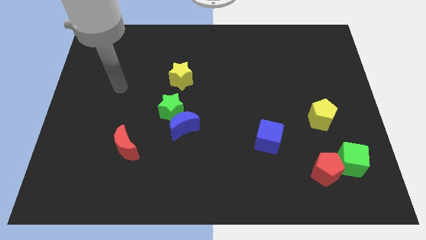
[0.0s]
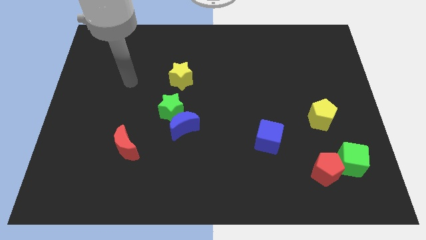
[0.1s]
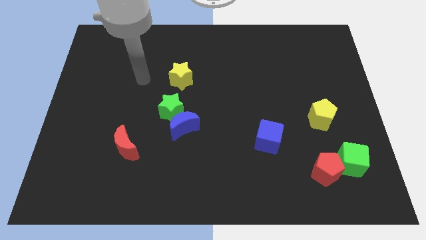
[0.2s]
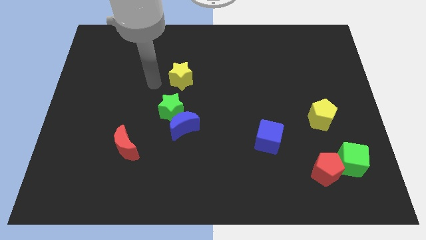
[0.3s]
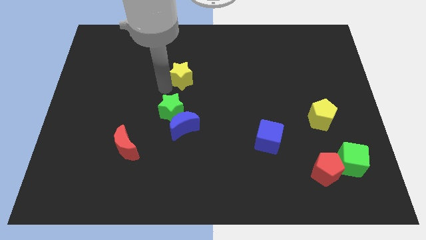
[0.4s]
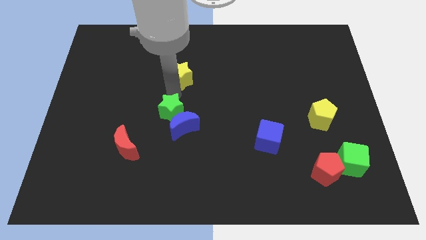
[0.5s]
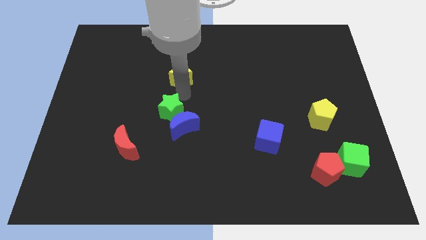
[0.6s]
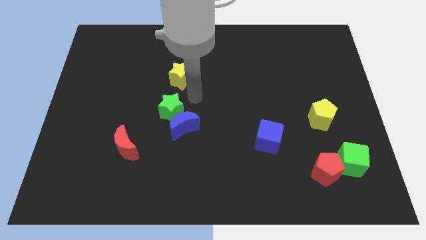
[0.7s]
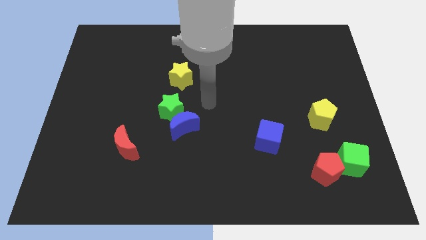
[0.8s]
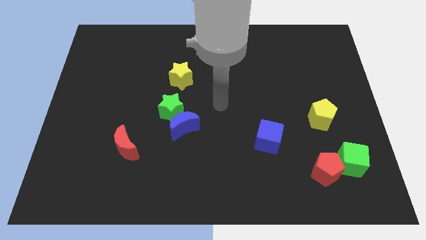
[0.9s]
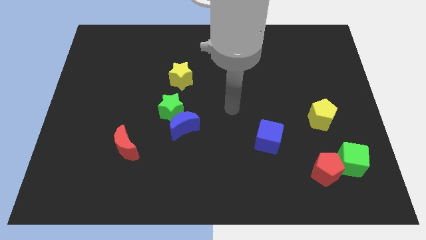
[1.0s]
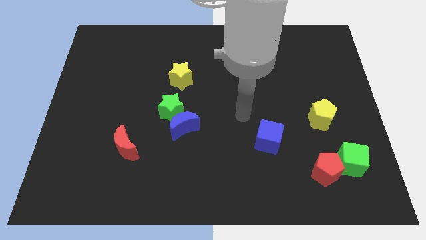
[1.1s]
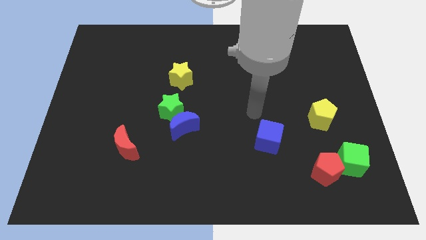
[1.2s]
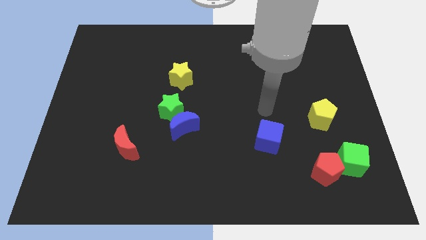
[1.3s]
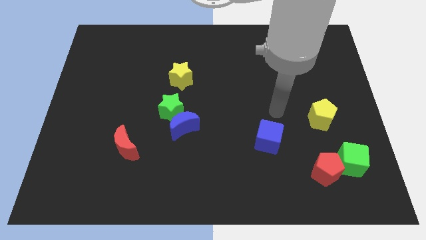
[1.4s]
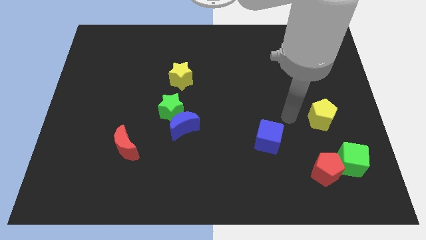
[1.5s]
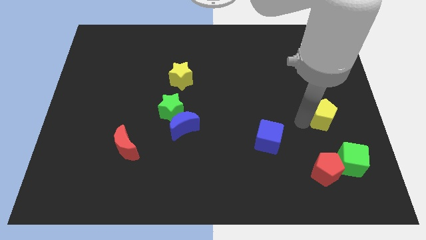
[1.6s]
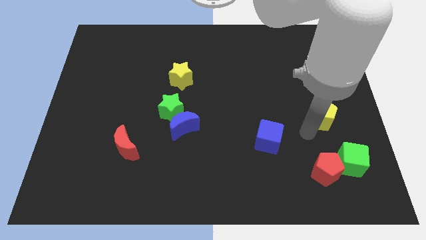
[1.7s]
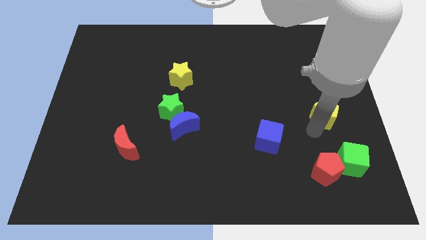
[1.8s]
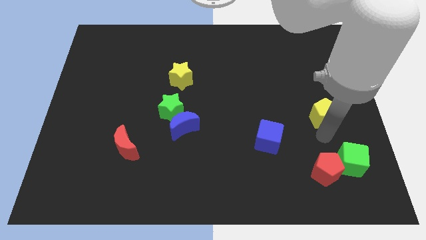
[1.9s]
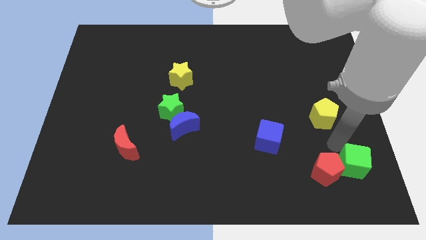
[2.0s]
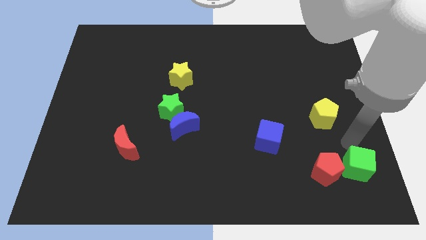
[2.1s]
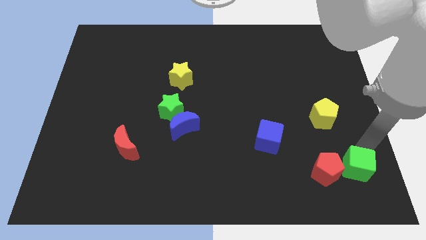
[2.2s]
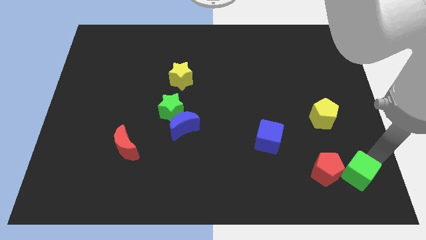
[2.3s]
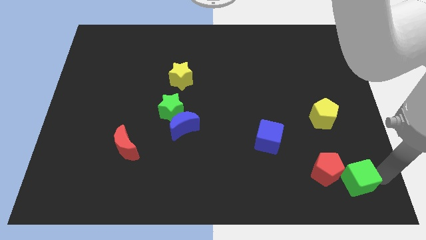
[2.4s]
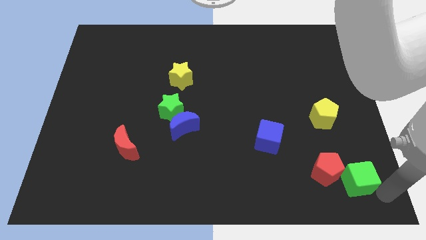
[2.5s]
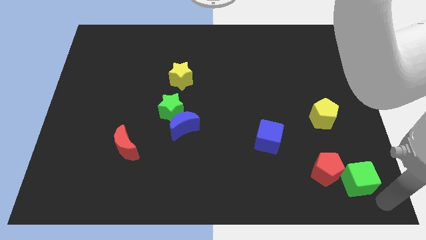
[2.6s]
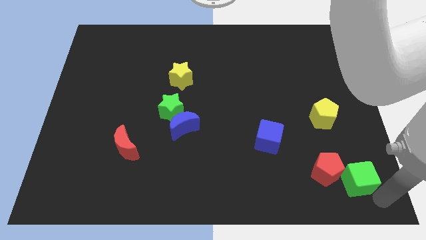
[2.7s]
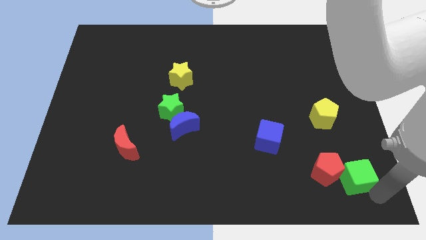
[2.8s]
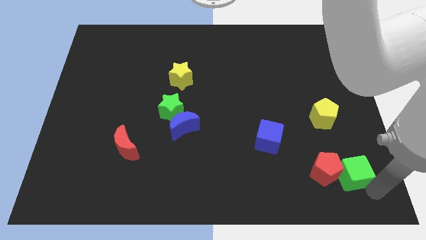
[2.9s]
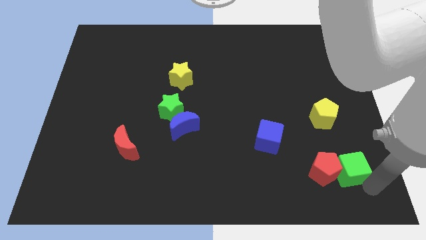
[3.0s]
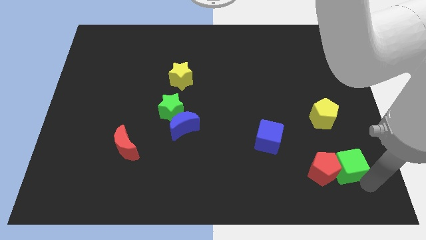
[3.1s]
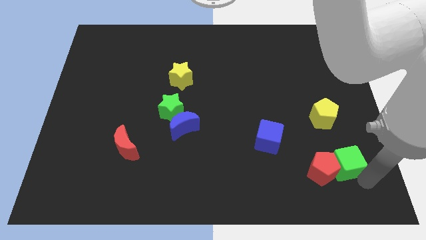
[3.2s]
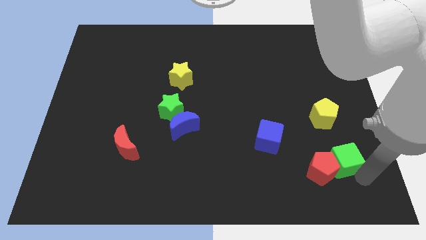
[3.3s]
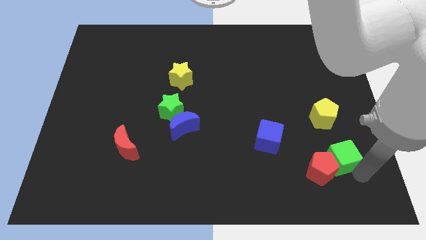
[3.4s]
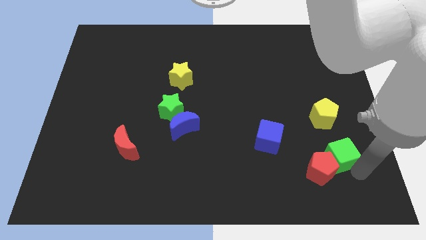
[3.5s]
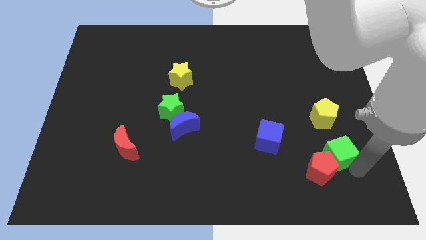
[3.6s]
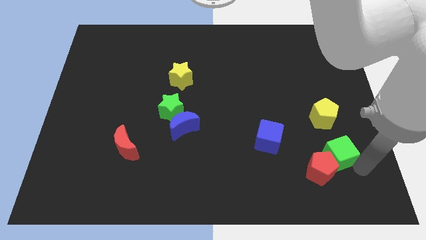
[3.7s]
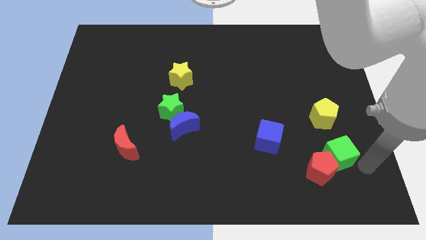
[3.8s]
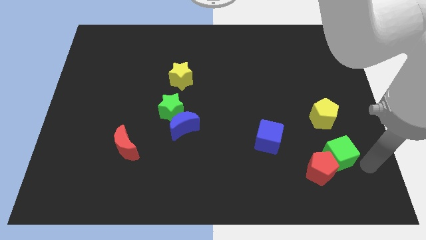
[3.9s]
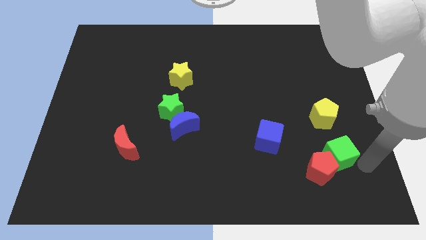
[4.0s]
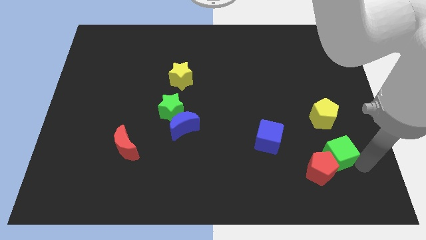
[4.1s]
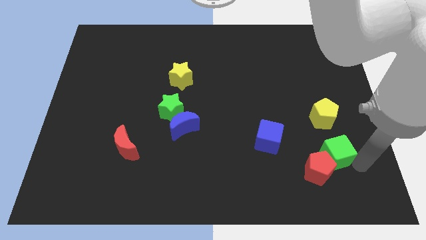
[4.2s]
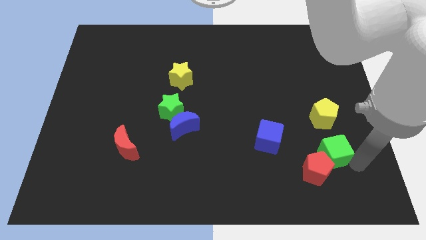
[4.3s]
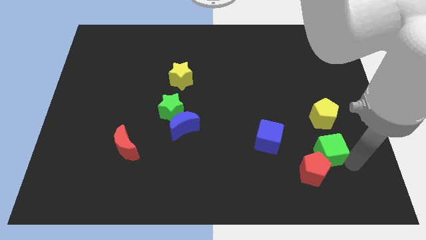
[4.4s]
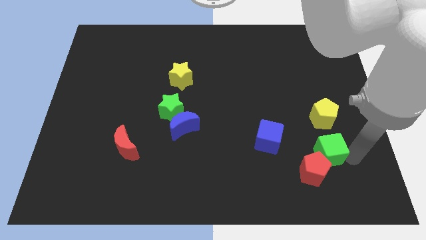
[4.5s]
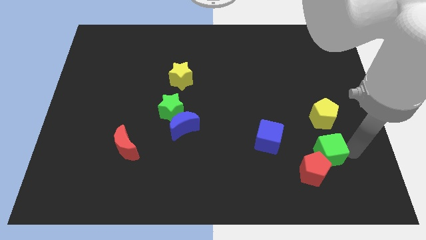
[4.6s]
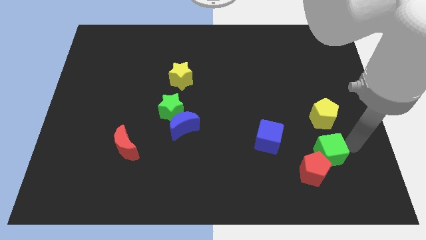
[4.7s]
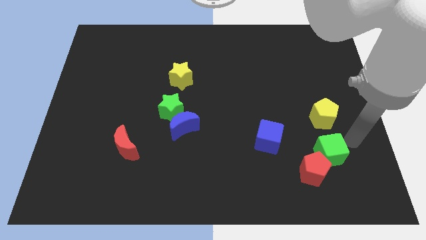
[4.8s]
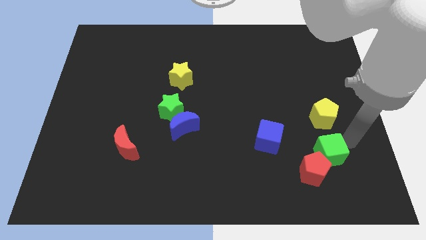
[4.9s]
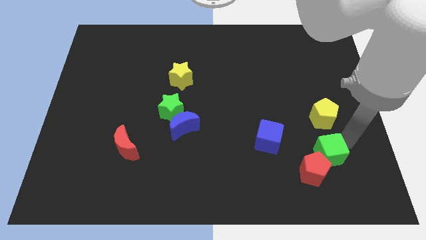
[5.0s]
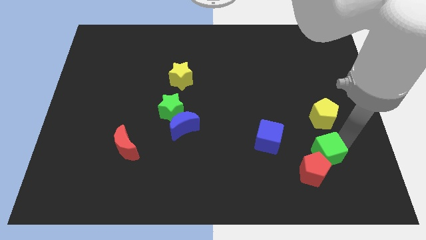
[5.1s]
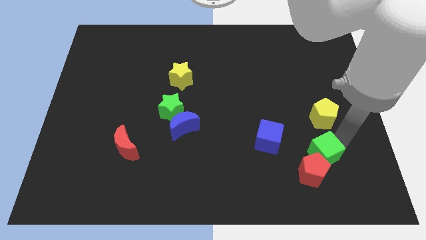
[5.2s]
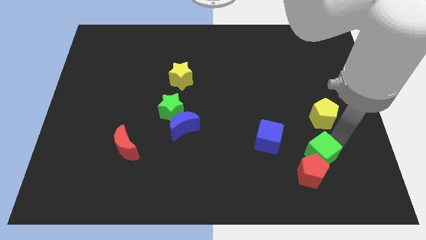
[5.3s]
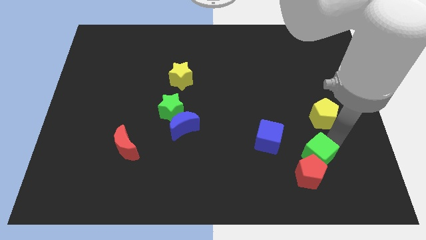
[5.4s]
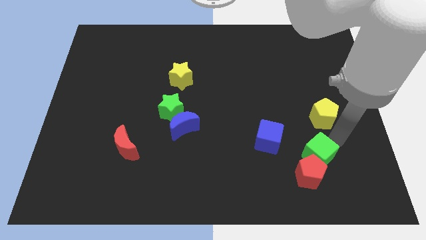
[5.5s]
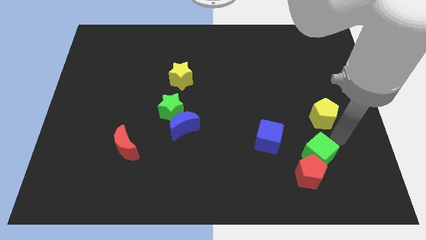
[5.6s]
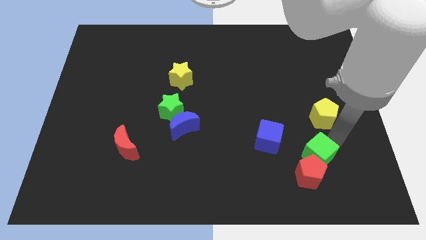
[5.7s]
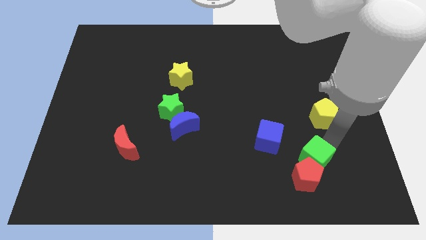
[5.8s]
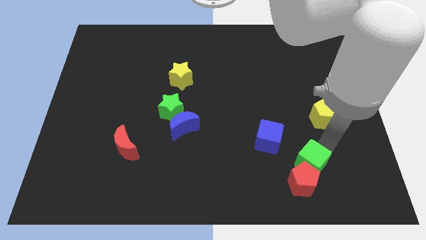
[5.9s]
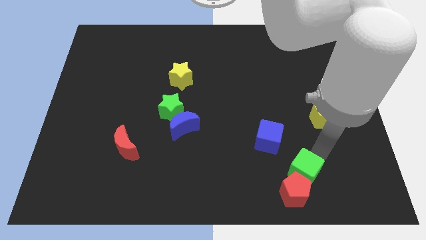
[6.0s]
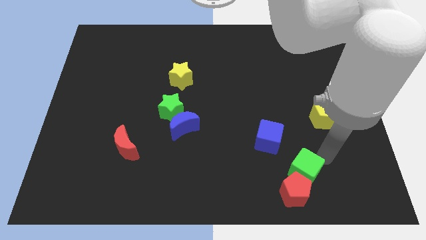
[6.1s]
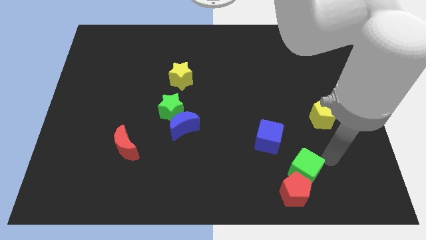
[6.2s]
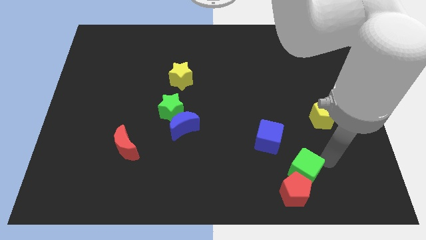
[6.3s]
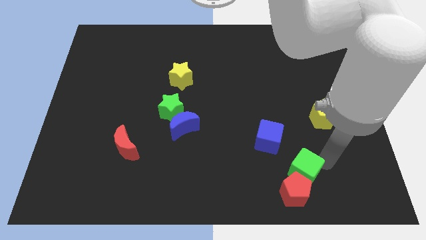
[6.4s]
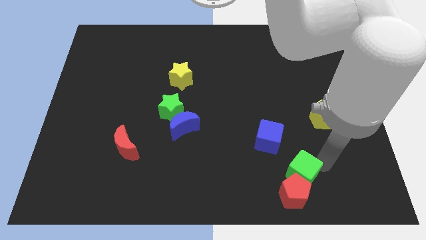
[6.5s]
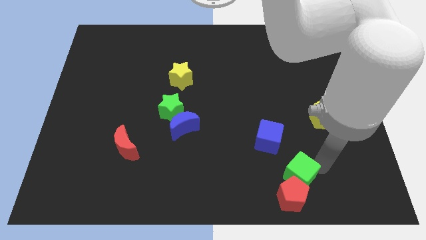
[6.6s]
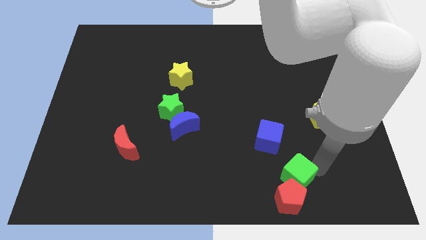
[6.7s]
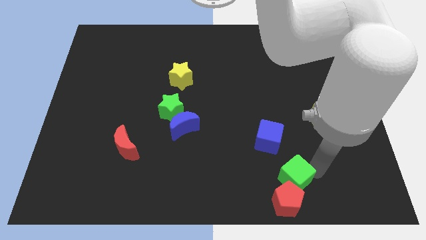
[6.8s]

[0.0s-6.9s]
move the green cube below the blue cube
